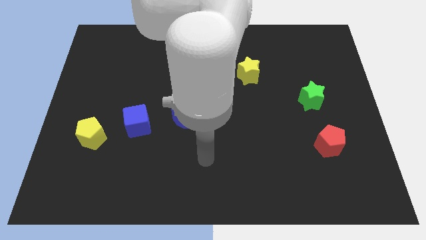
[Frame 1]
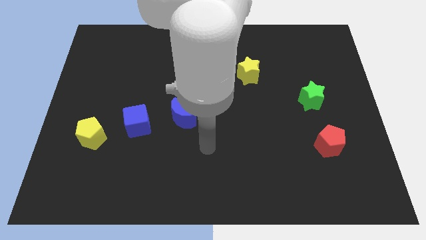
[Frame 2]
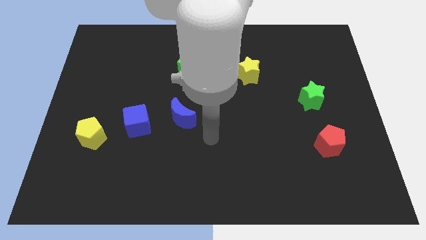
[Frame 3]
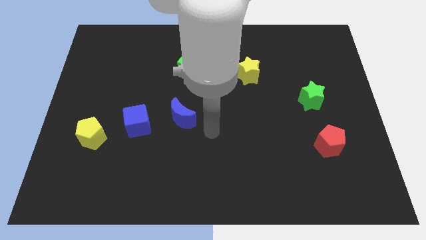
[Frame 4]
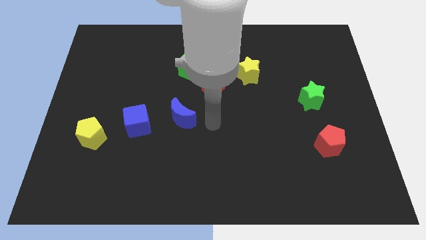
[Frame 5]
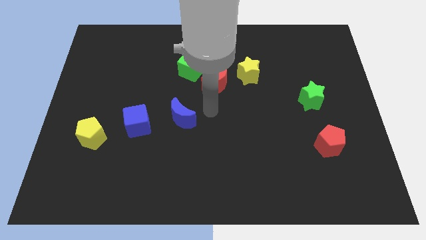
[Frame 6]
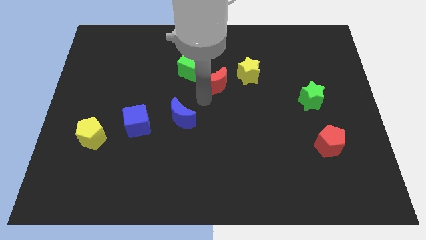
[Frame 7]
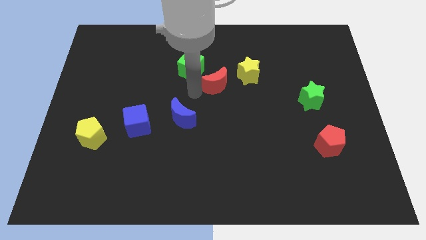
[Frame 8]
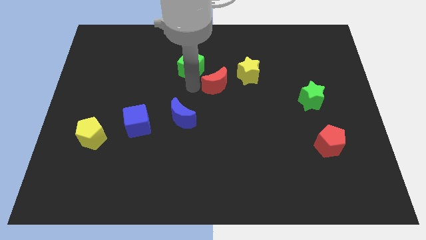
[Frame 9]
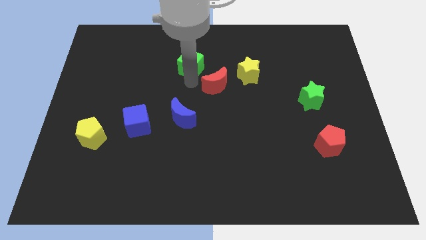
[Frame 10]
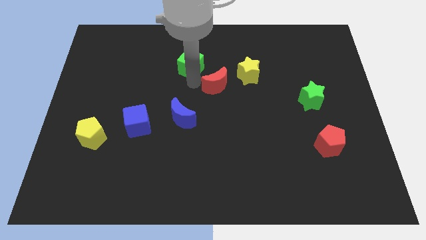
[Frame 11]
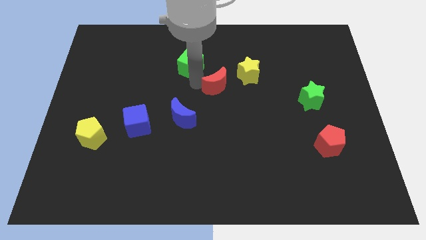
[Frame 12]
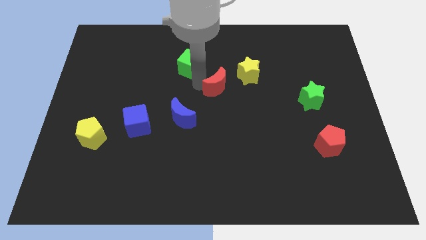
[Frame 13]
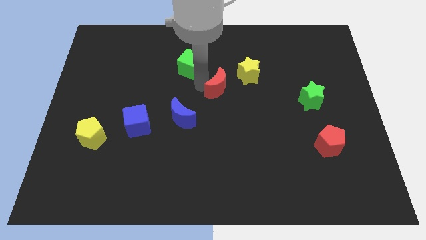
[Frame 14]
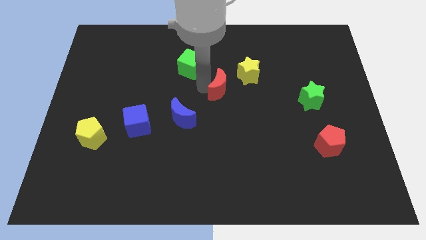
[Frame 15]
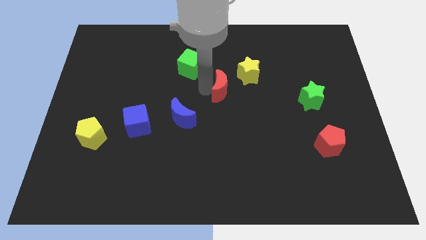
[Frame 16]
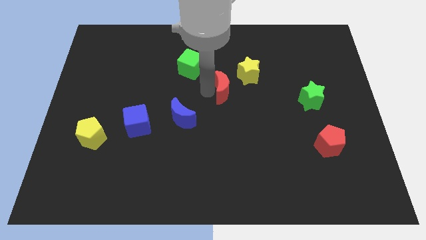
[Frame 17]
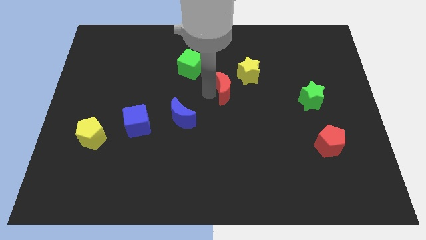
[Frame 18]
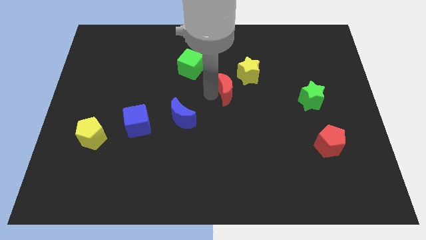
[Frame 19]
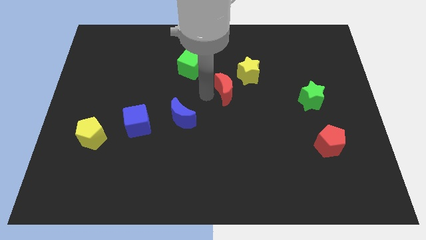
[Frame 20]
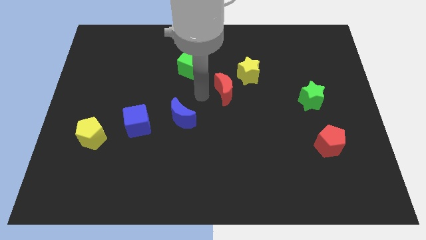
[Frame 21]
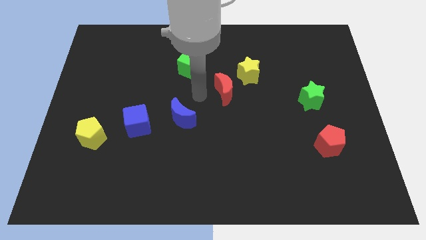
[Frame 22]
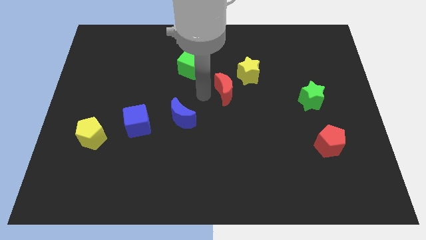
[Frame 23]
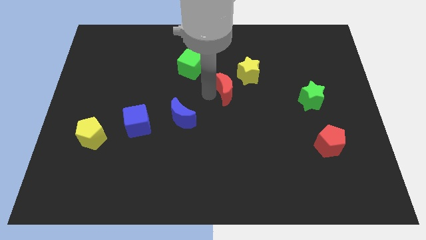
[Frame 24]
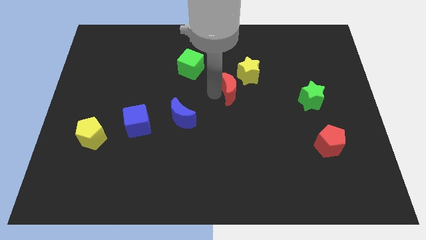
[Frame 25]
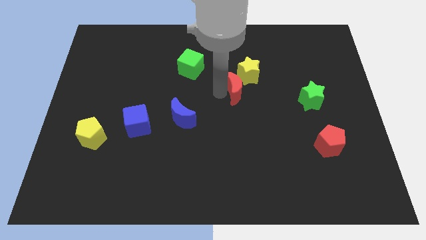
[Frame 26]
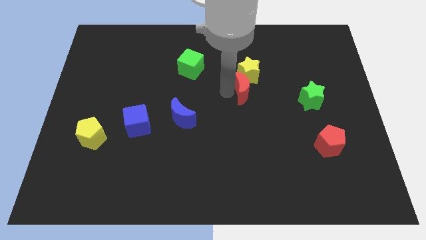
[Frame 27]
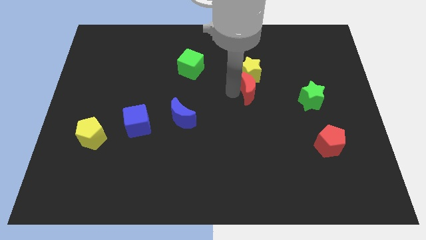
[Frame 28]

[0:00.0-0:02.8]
push the red moon a little bit to the right

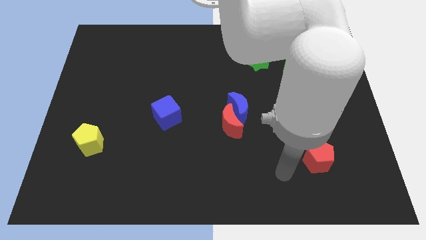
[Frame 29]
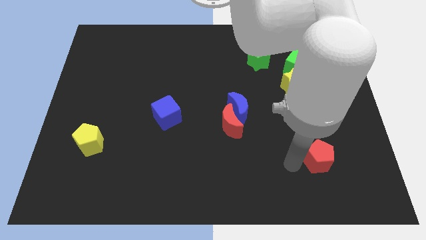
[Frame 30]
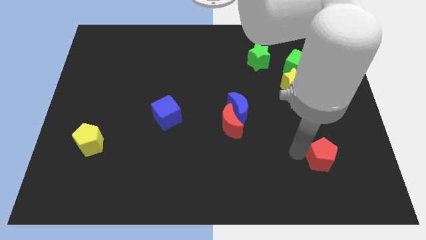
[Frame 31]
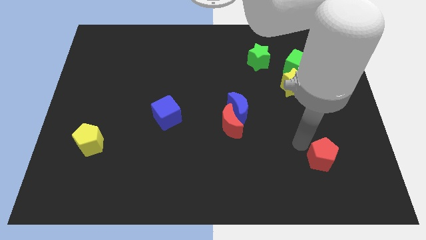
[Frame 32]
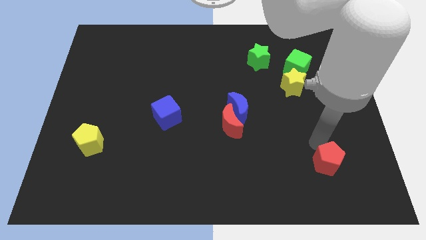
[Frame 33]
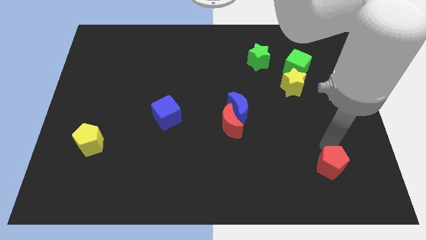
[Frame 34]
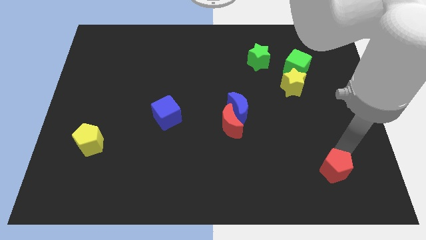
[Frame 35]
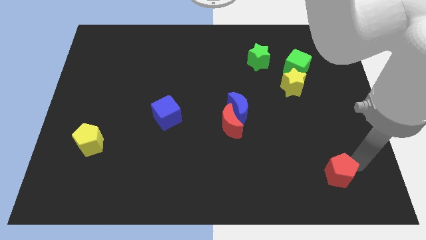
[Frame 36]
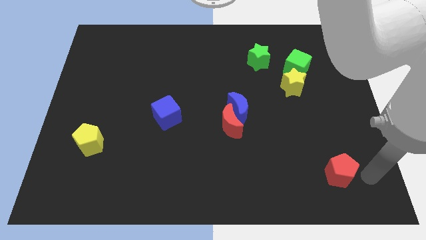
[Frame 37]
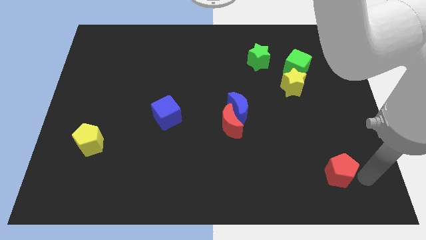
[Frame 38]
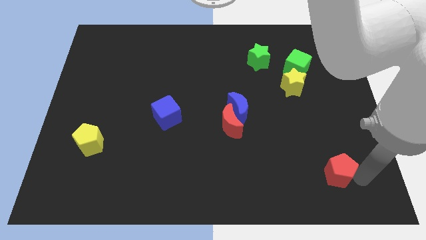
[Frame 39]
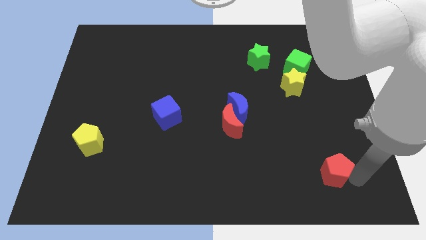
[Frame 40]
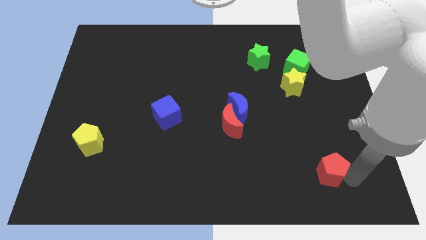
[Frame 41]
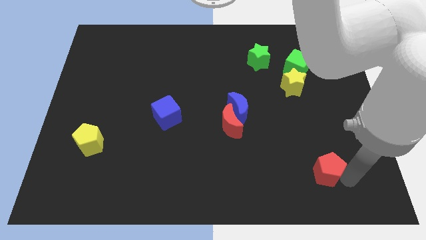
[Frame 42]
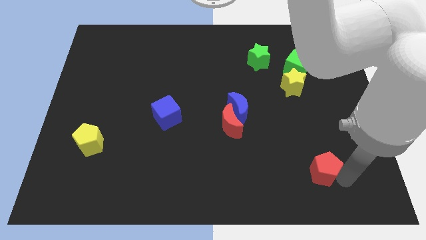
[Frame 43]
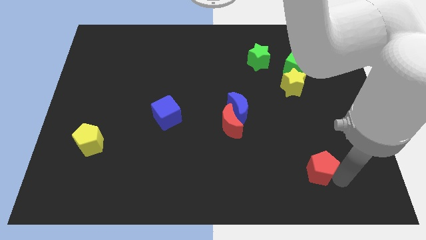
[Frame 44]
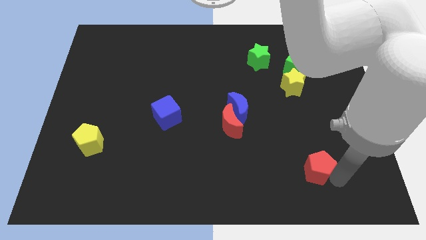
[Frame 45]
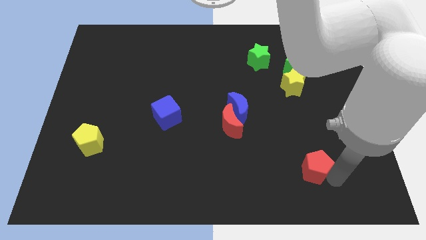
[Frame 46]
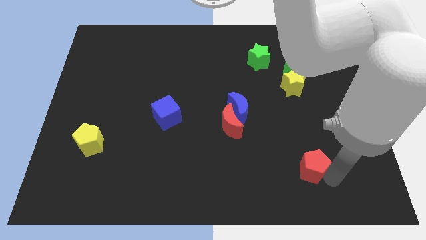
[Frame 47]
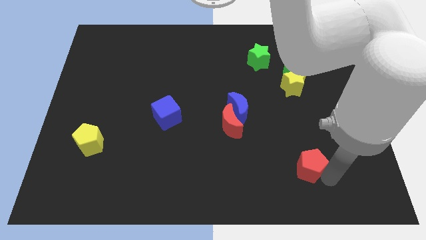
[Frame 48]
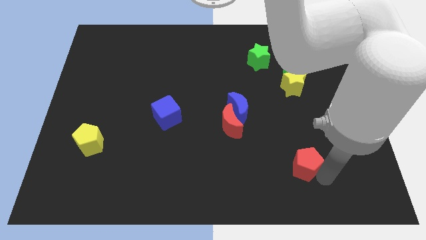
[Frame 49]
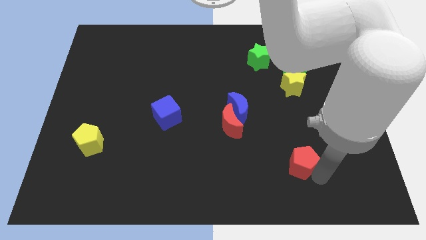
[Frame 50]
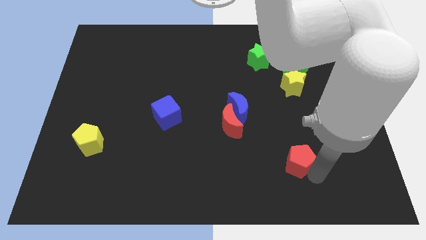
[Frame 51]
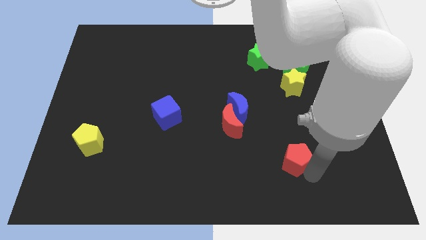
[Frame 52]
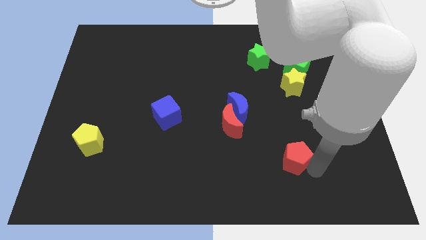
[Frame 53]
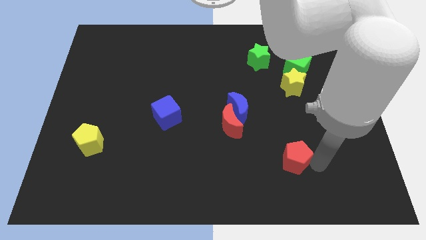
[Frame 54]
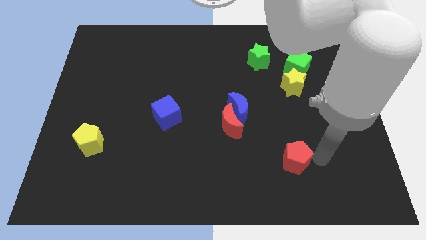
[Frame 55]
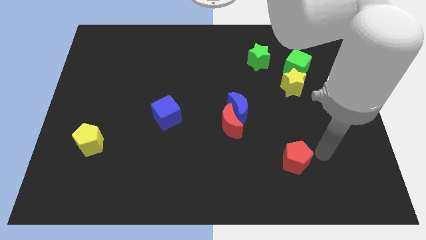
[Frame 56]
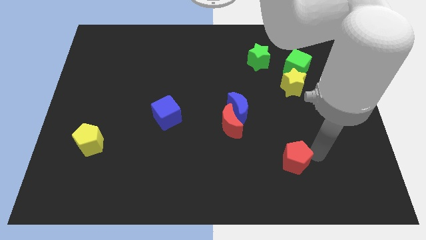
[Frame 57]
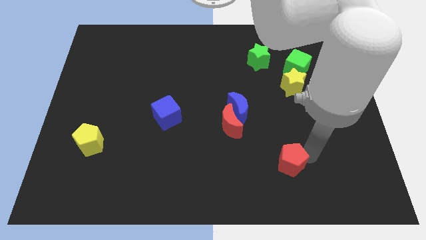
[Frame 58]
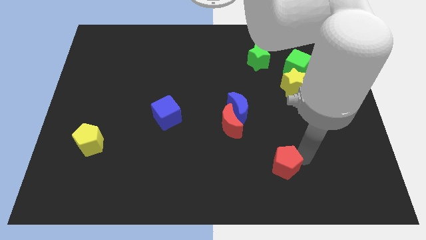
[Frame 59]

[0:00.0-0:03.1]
slide the red pentagon a little left

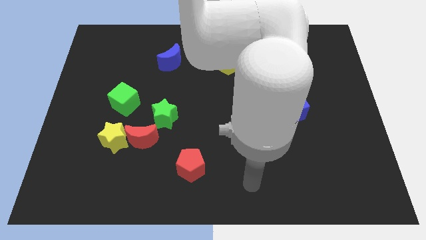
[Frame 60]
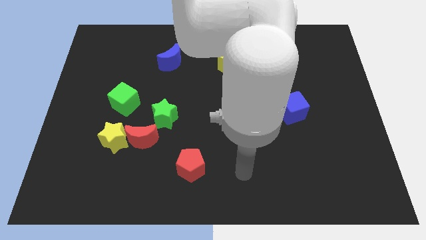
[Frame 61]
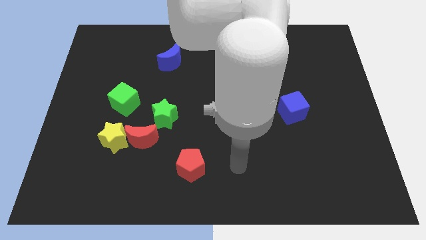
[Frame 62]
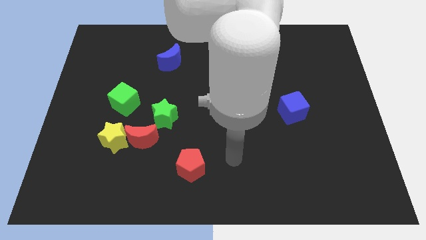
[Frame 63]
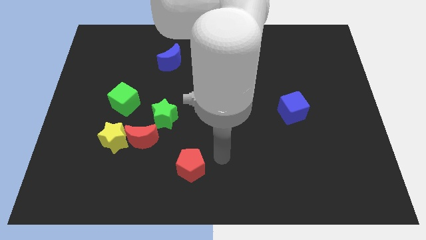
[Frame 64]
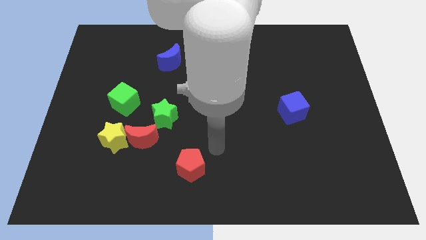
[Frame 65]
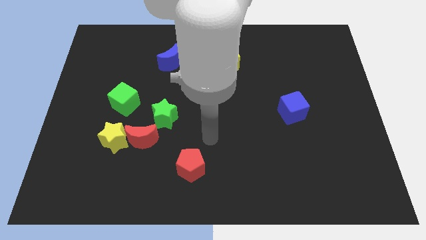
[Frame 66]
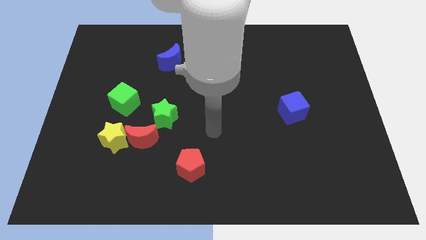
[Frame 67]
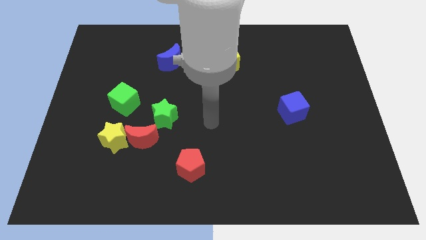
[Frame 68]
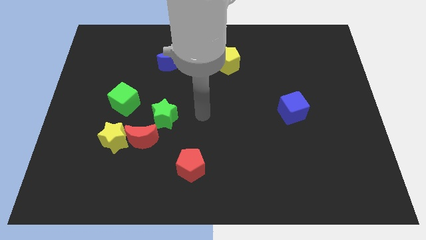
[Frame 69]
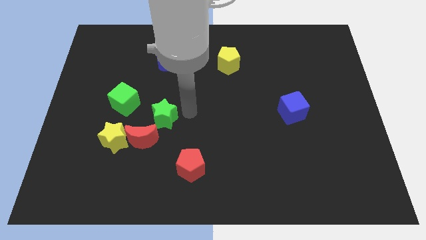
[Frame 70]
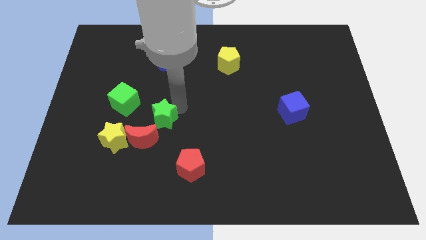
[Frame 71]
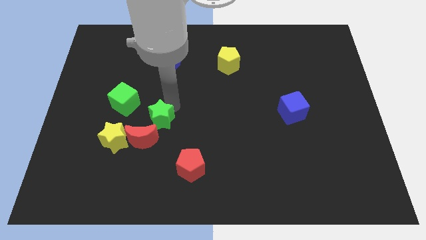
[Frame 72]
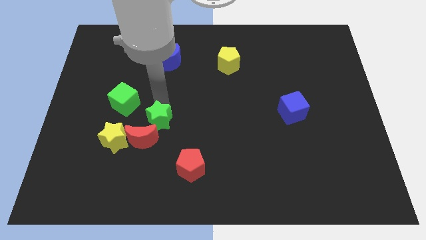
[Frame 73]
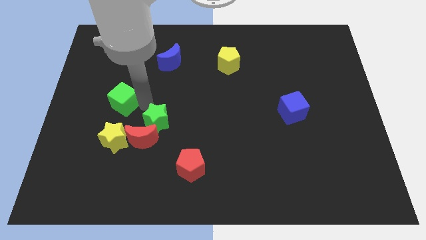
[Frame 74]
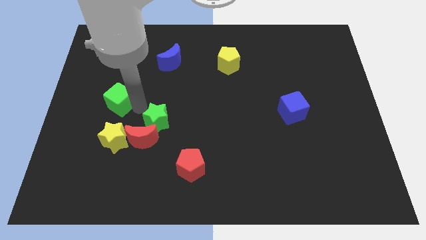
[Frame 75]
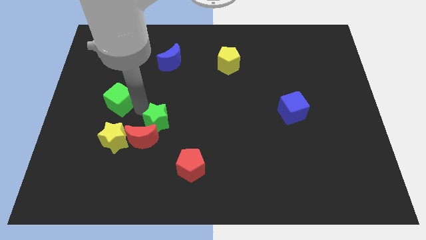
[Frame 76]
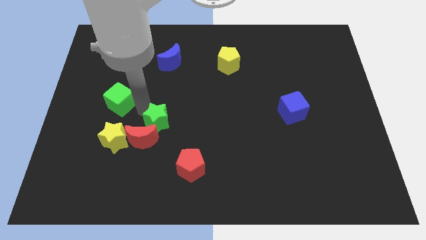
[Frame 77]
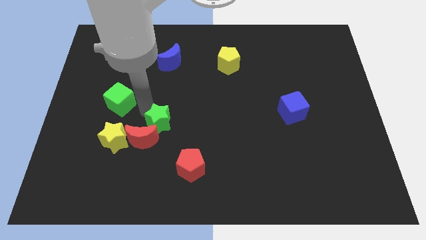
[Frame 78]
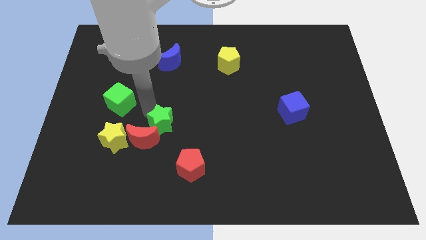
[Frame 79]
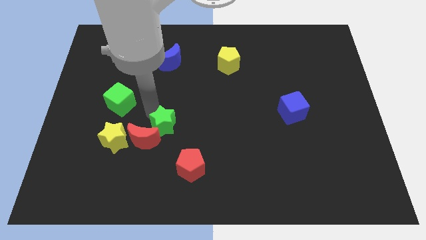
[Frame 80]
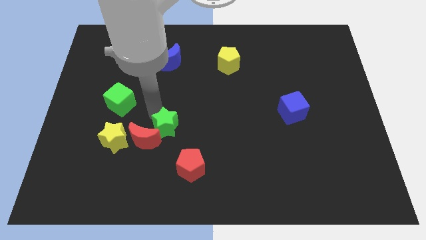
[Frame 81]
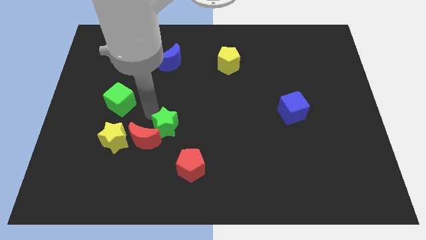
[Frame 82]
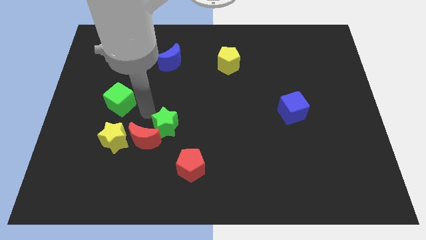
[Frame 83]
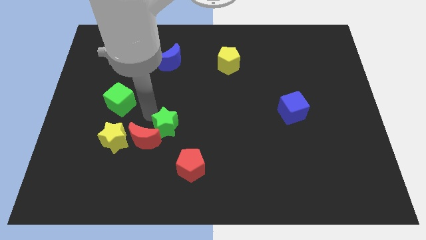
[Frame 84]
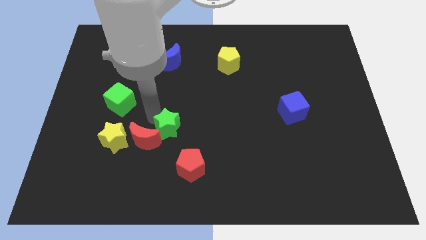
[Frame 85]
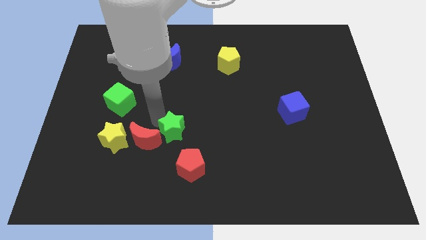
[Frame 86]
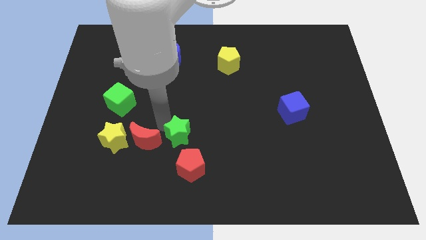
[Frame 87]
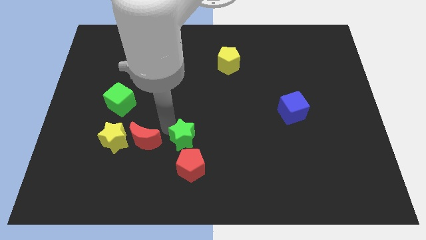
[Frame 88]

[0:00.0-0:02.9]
slide the green star diagonally down and right a little bit
